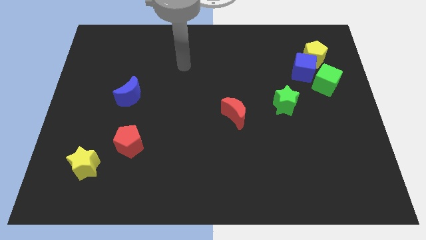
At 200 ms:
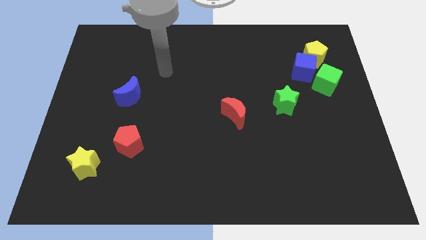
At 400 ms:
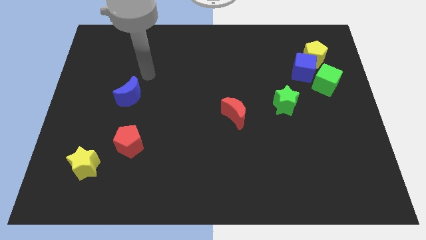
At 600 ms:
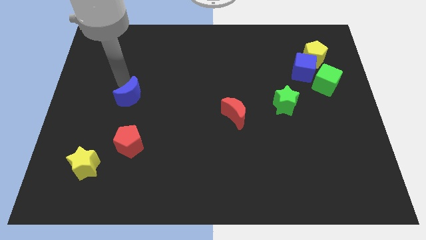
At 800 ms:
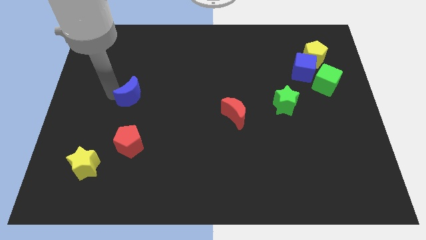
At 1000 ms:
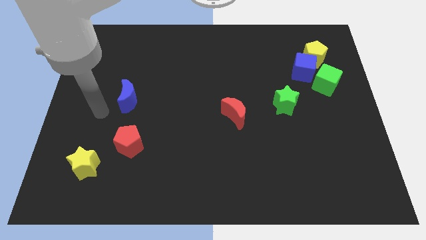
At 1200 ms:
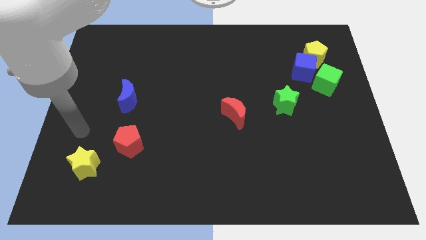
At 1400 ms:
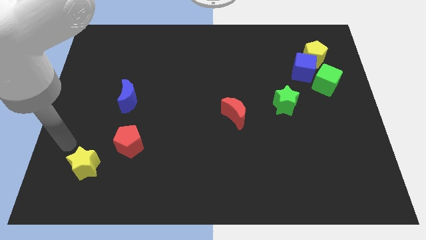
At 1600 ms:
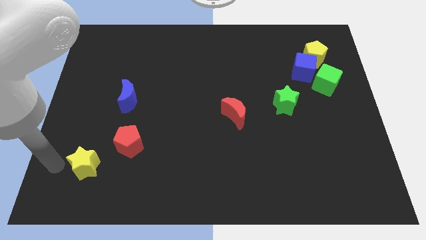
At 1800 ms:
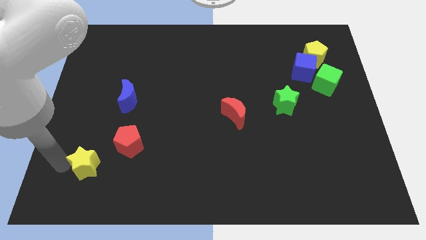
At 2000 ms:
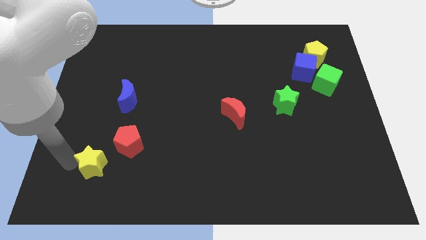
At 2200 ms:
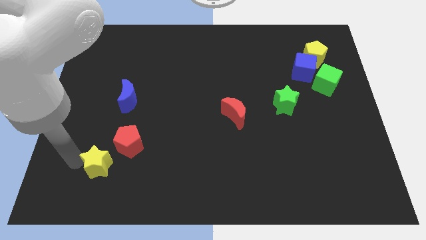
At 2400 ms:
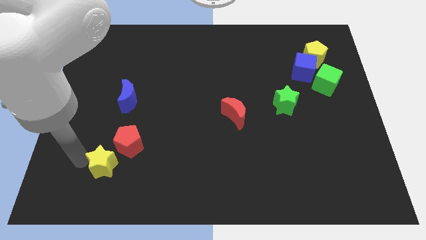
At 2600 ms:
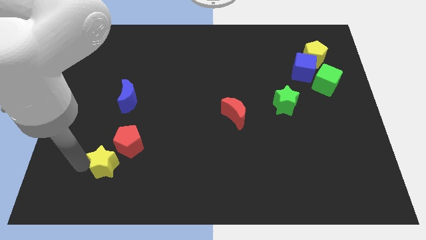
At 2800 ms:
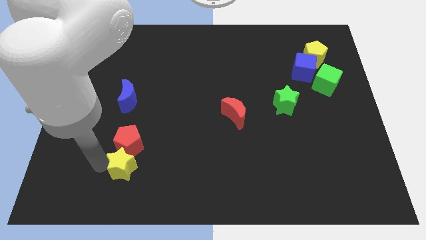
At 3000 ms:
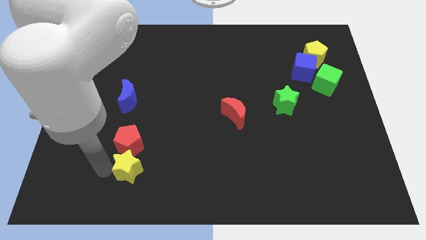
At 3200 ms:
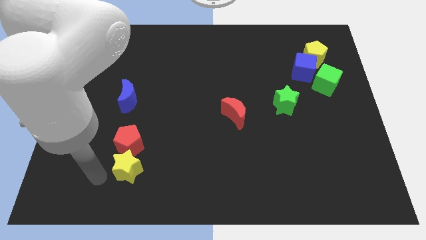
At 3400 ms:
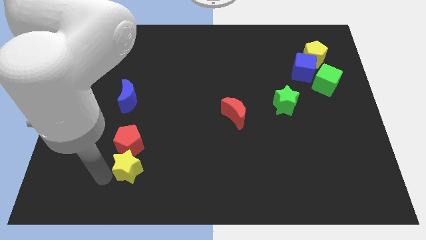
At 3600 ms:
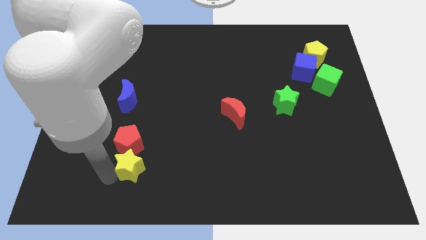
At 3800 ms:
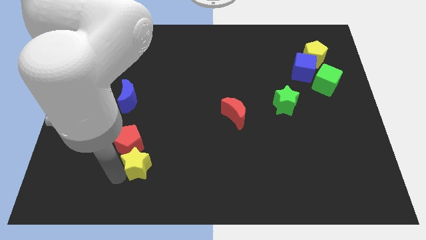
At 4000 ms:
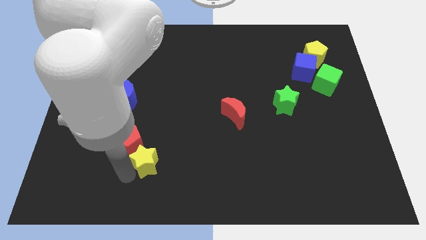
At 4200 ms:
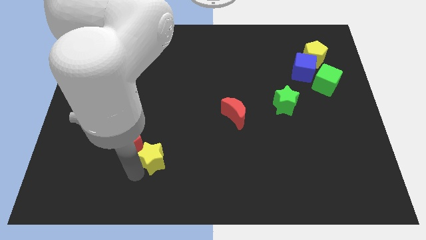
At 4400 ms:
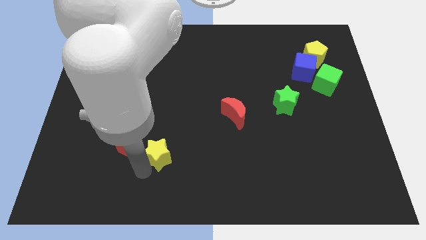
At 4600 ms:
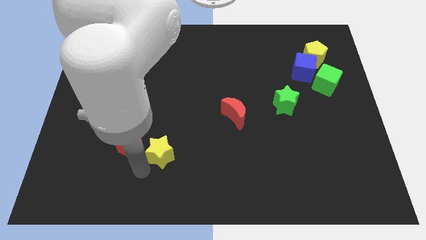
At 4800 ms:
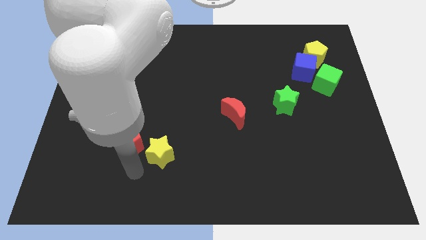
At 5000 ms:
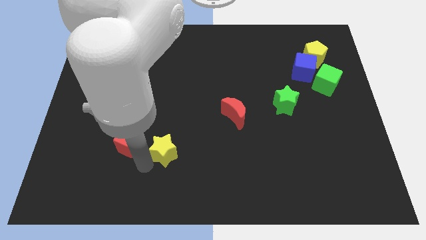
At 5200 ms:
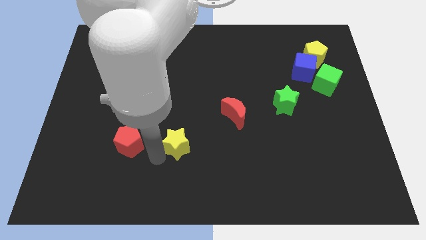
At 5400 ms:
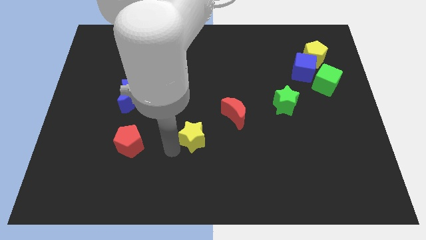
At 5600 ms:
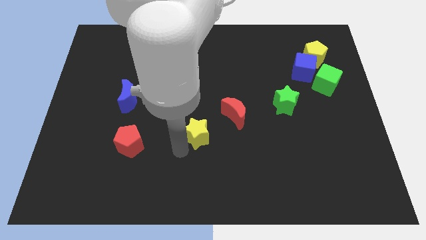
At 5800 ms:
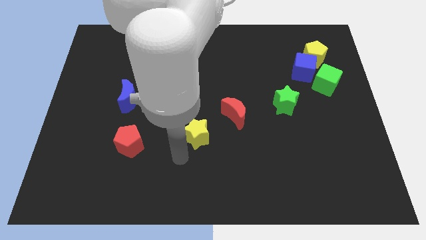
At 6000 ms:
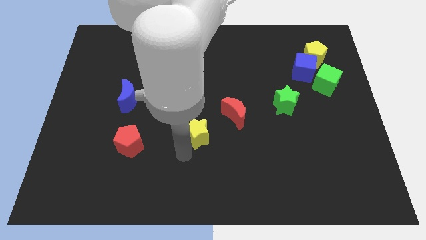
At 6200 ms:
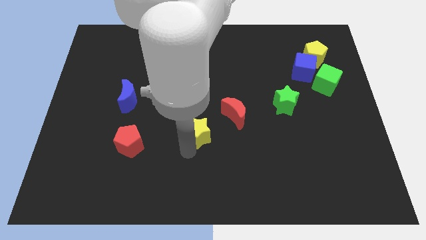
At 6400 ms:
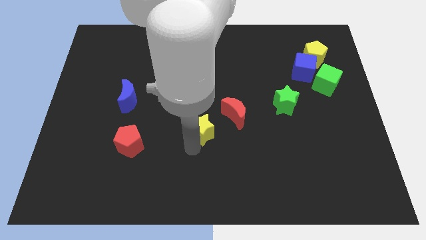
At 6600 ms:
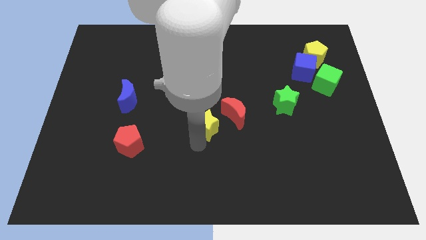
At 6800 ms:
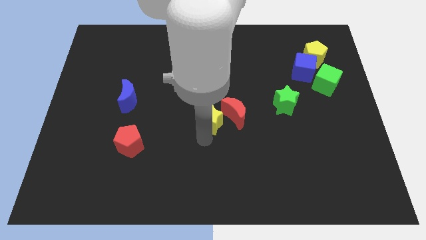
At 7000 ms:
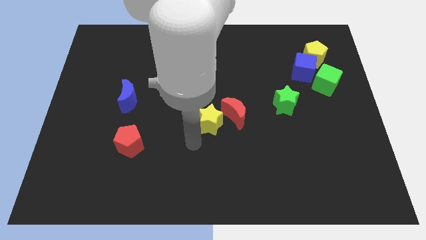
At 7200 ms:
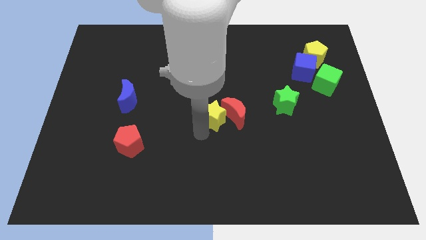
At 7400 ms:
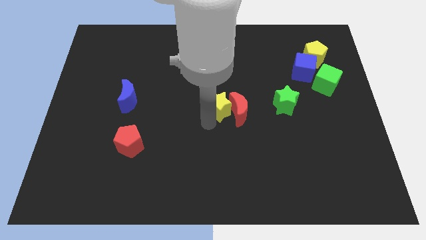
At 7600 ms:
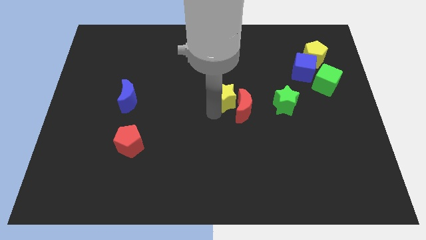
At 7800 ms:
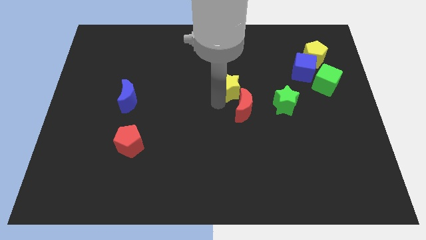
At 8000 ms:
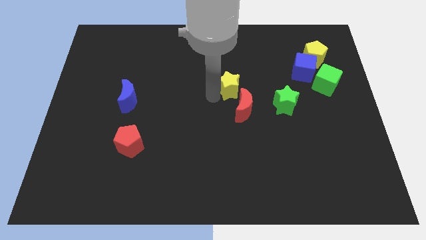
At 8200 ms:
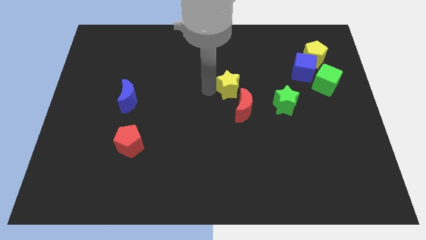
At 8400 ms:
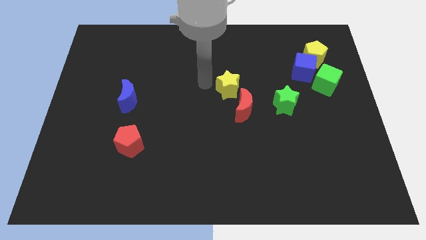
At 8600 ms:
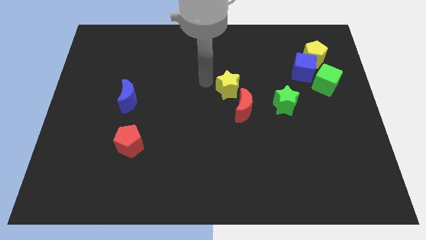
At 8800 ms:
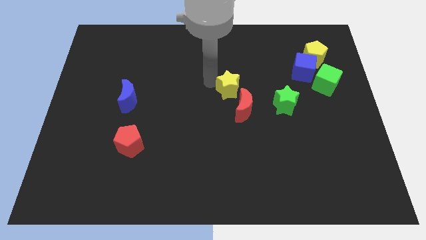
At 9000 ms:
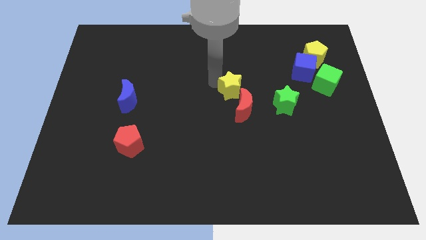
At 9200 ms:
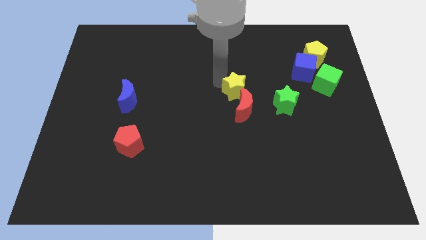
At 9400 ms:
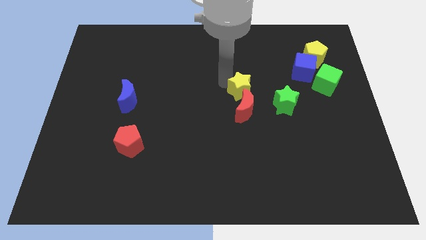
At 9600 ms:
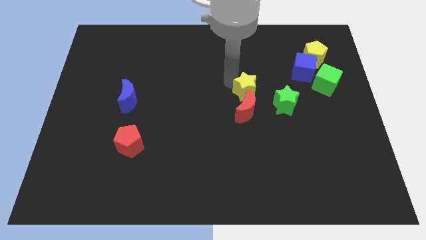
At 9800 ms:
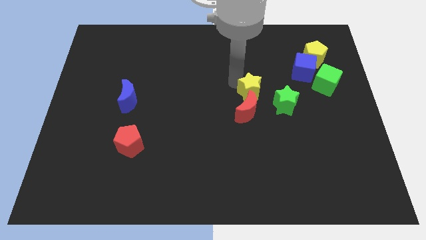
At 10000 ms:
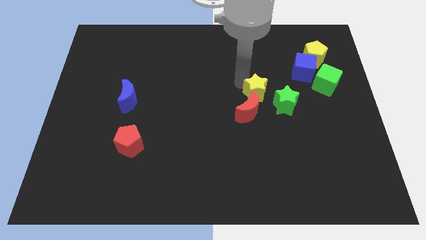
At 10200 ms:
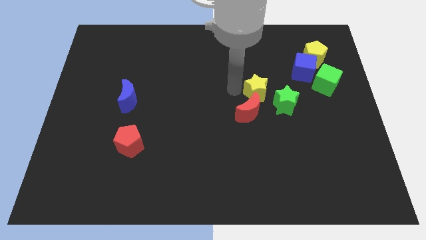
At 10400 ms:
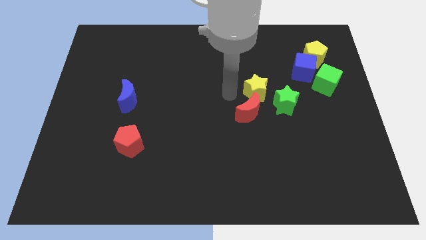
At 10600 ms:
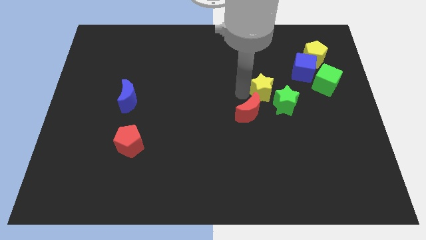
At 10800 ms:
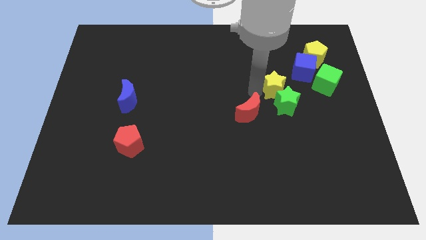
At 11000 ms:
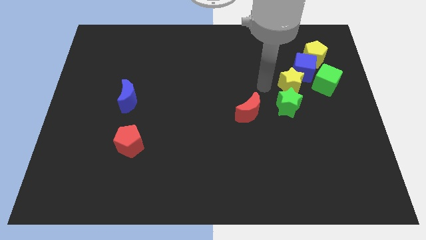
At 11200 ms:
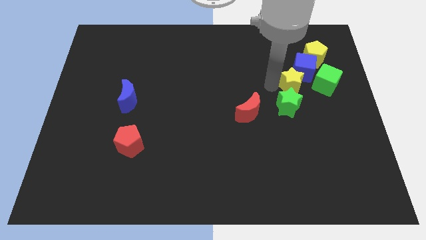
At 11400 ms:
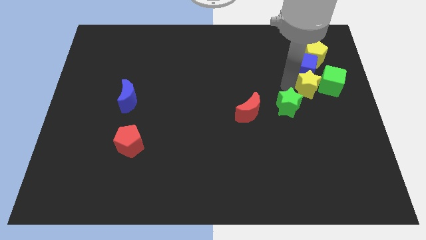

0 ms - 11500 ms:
move the yellow star close to the green cube

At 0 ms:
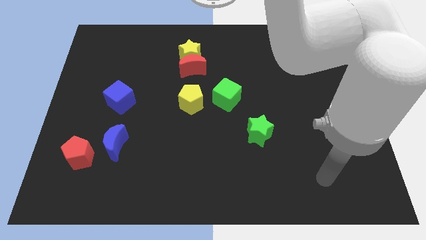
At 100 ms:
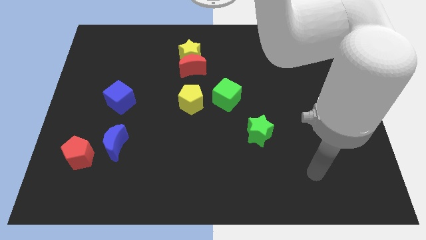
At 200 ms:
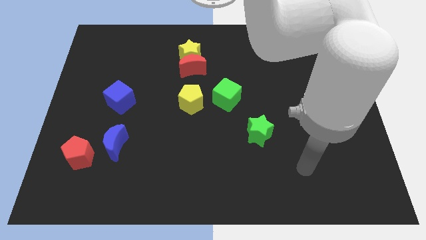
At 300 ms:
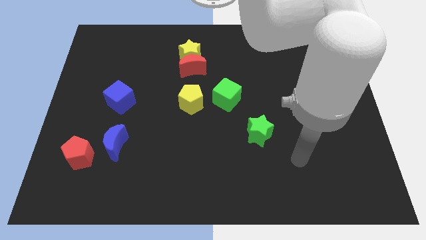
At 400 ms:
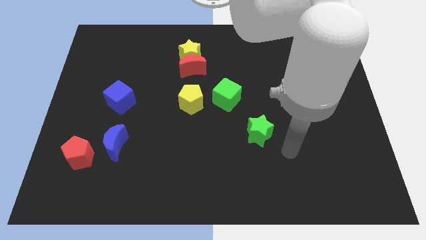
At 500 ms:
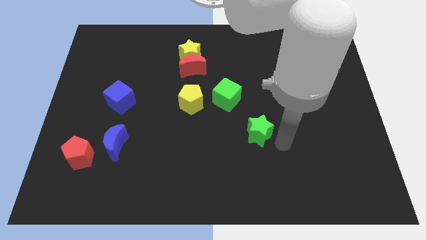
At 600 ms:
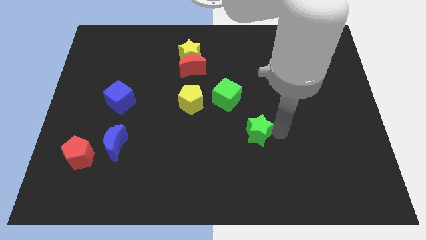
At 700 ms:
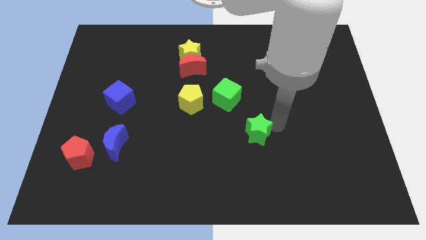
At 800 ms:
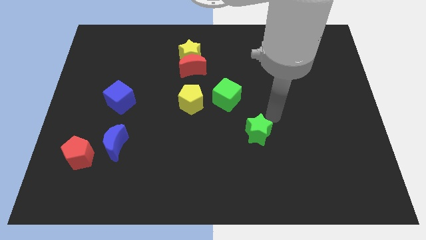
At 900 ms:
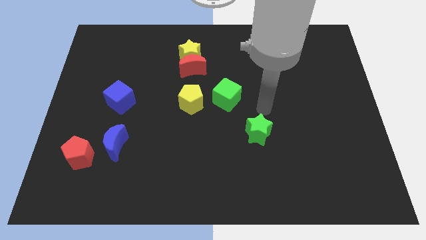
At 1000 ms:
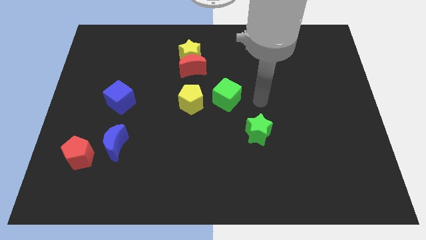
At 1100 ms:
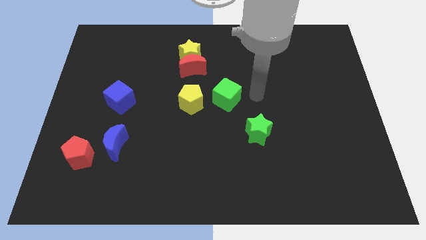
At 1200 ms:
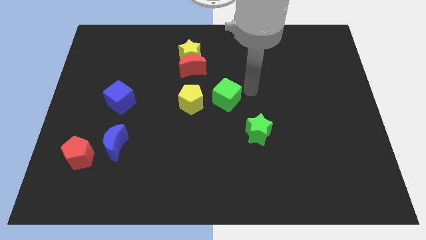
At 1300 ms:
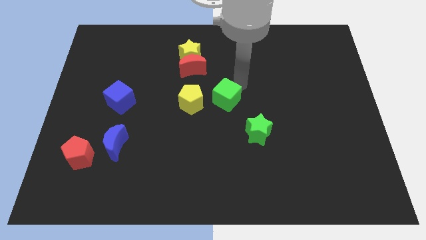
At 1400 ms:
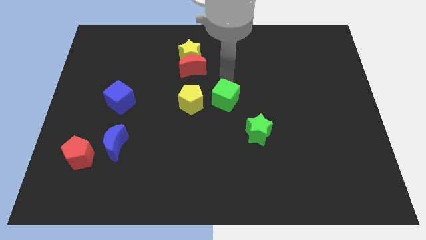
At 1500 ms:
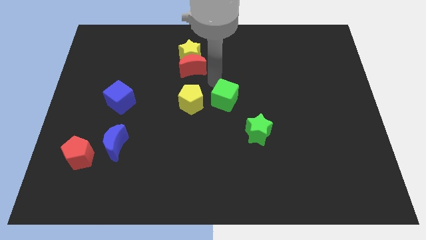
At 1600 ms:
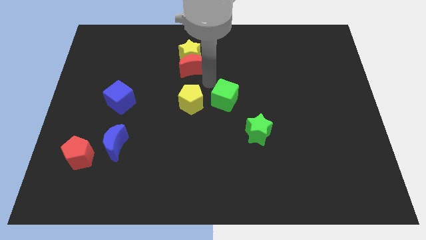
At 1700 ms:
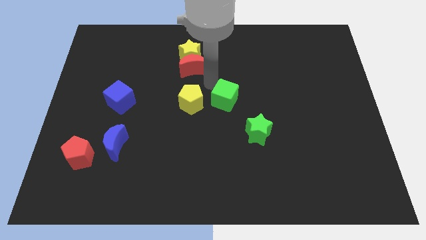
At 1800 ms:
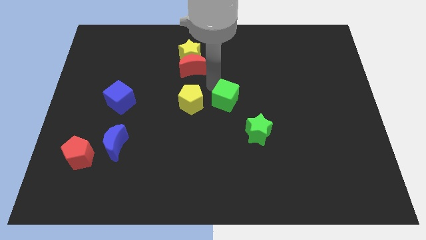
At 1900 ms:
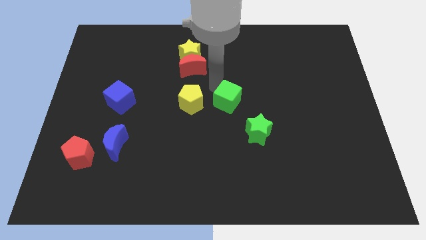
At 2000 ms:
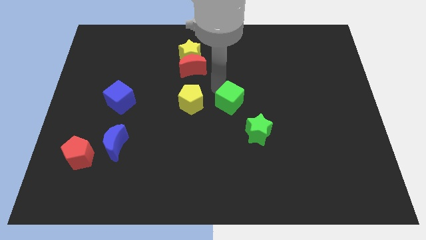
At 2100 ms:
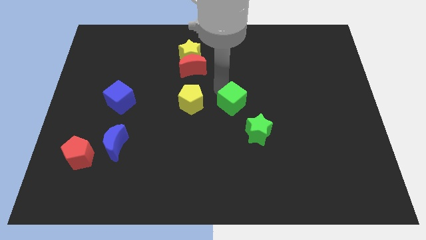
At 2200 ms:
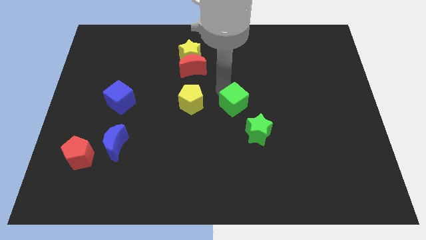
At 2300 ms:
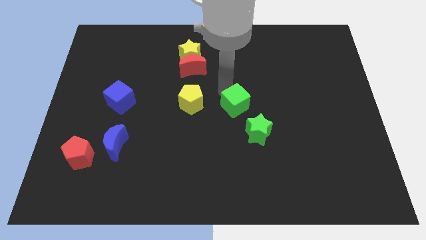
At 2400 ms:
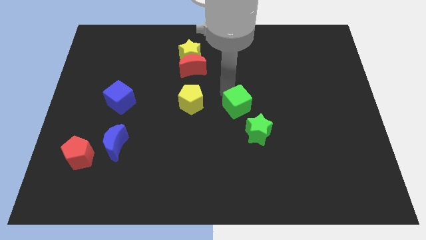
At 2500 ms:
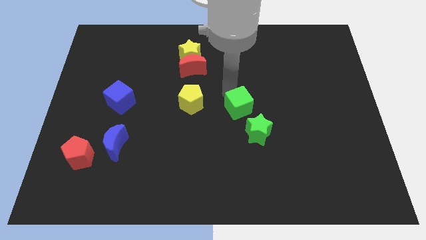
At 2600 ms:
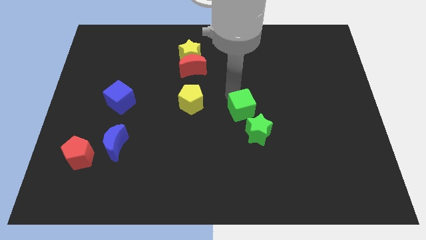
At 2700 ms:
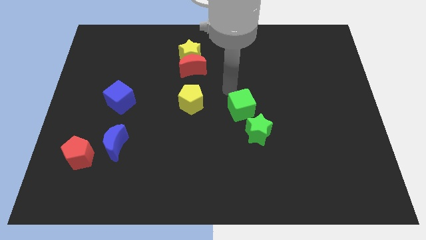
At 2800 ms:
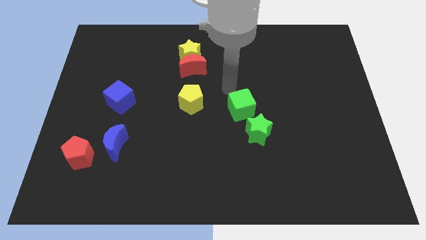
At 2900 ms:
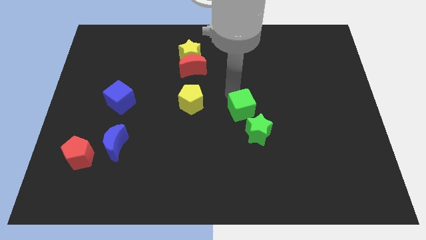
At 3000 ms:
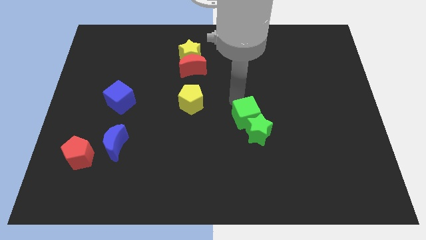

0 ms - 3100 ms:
move the green cube towards the green star
